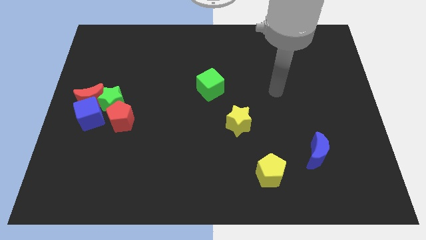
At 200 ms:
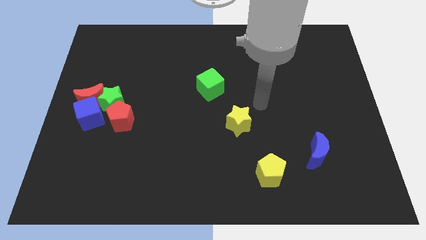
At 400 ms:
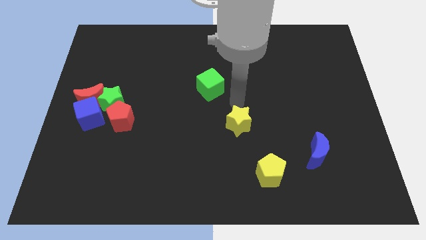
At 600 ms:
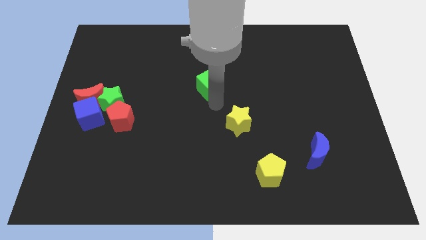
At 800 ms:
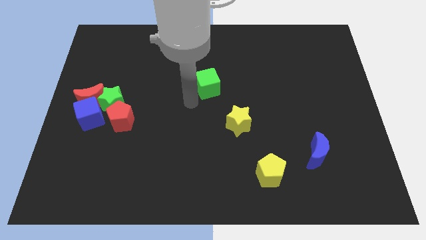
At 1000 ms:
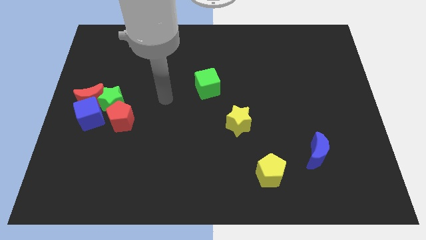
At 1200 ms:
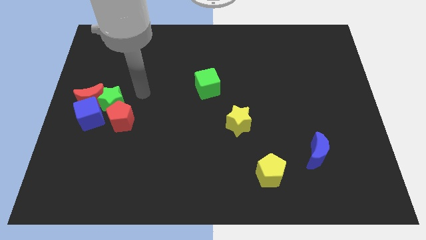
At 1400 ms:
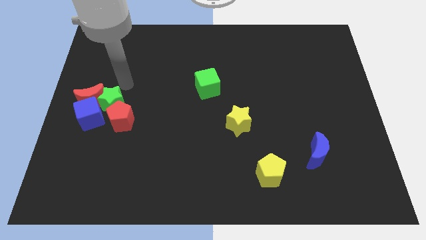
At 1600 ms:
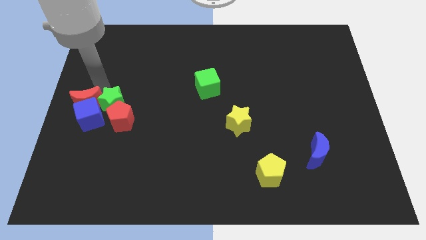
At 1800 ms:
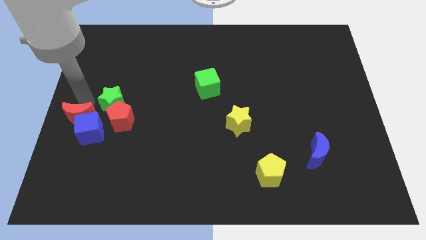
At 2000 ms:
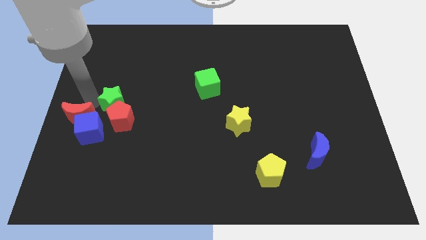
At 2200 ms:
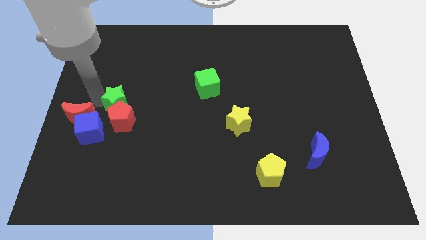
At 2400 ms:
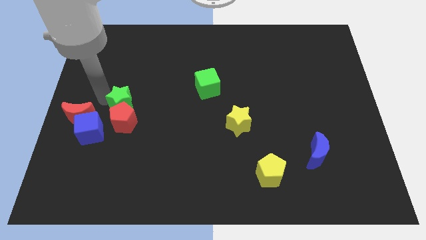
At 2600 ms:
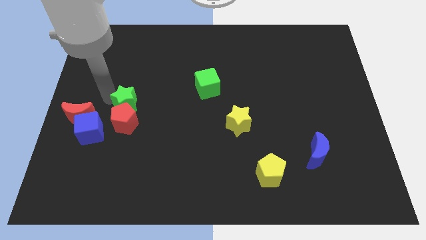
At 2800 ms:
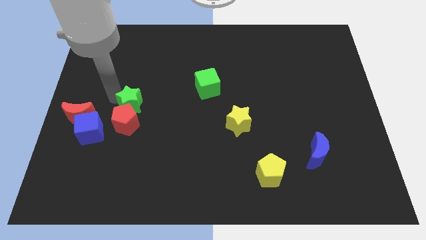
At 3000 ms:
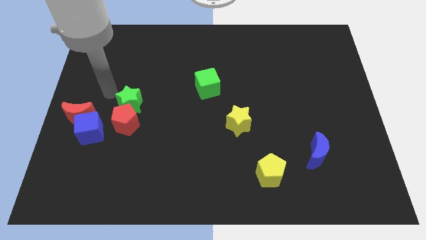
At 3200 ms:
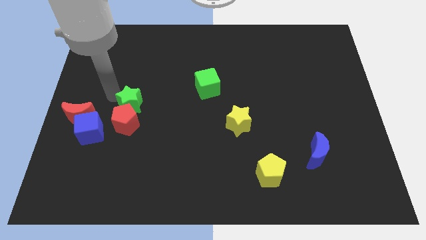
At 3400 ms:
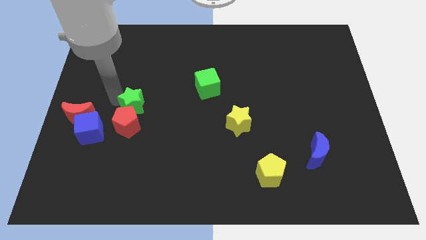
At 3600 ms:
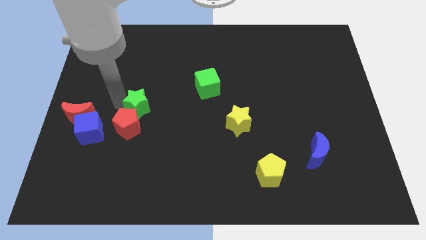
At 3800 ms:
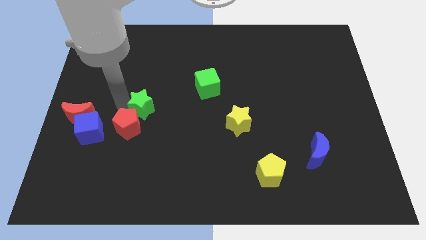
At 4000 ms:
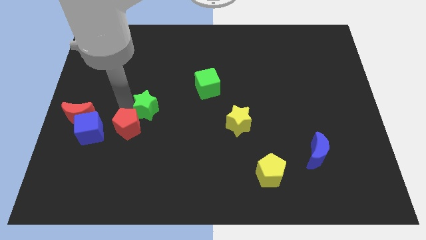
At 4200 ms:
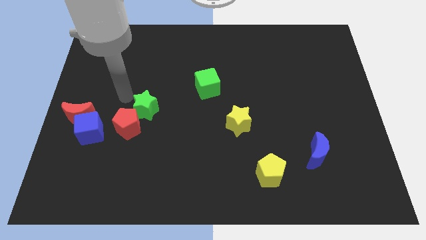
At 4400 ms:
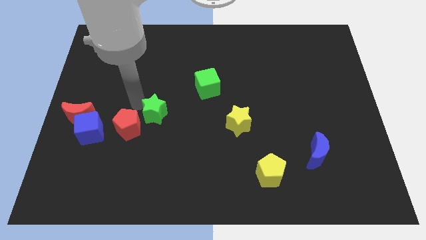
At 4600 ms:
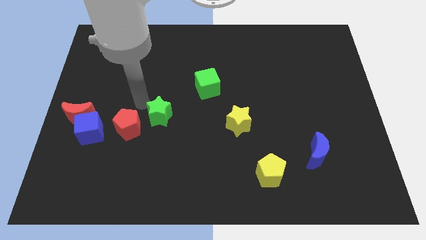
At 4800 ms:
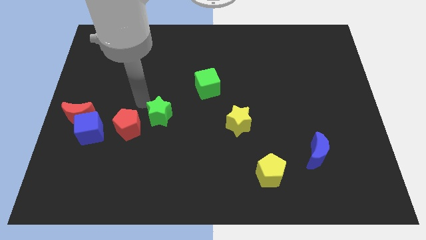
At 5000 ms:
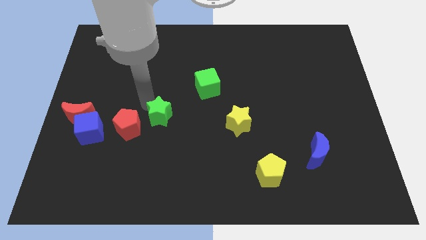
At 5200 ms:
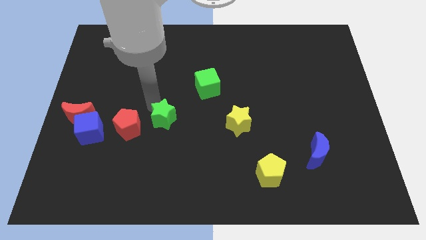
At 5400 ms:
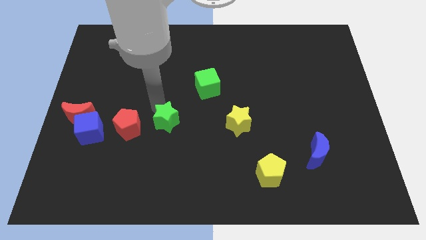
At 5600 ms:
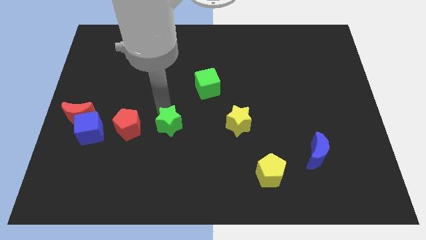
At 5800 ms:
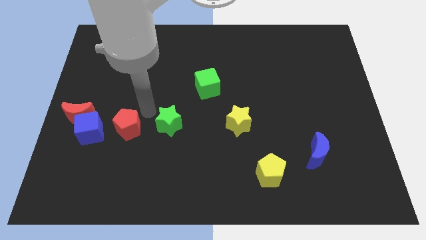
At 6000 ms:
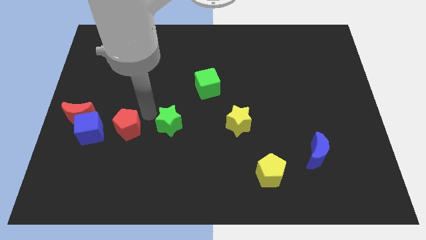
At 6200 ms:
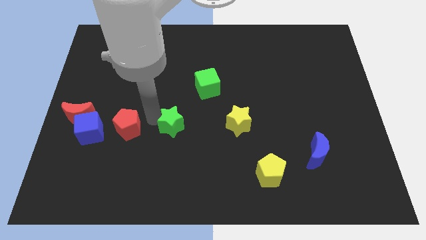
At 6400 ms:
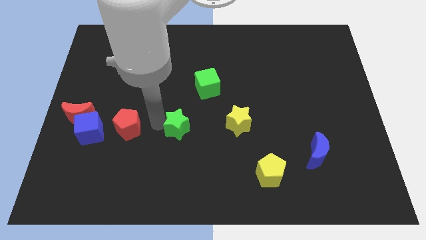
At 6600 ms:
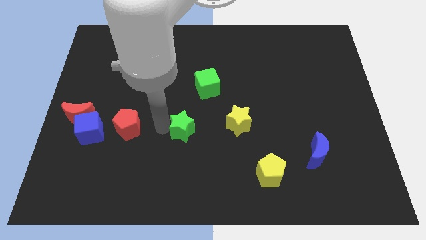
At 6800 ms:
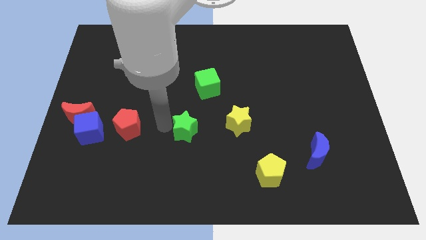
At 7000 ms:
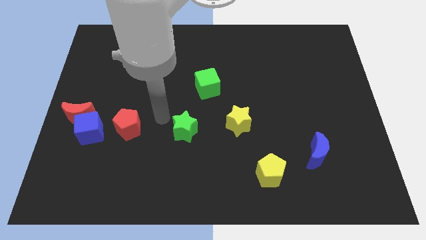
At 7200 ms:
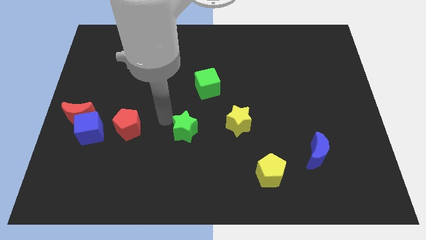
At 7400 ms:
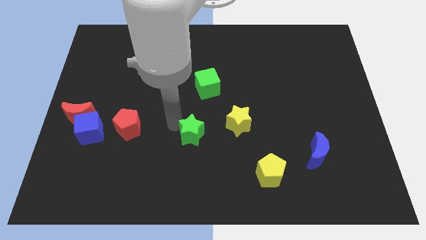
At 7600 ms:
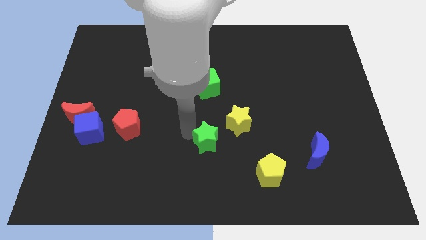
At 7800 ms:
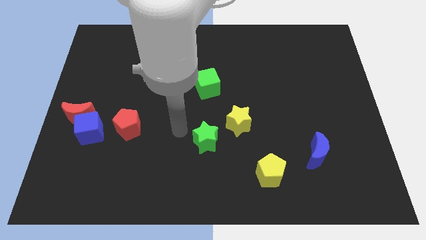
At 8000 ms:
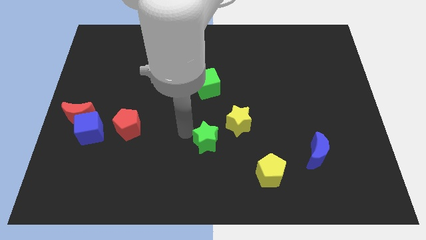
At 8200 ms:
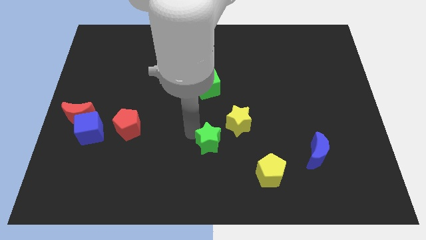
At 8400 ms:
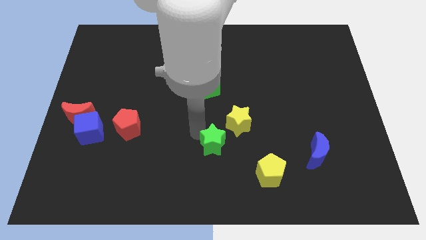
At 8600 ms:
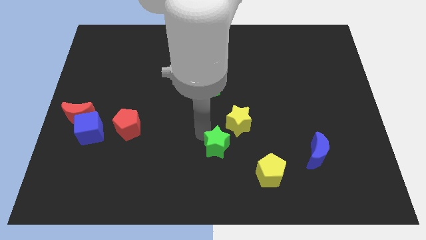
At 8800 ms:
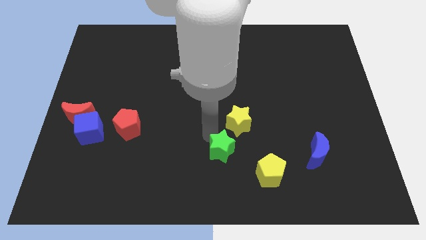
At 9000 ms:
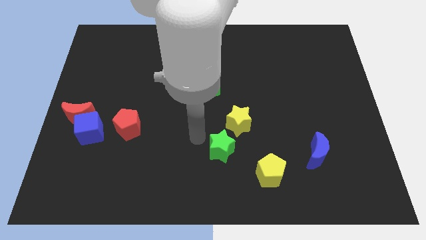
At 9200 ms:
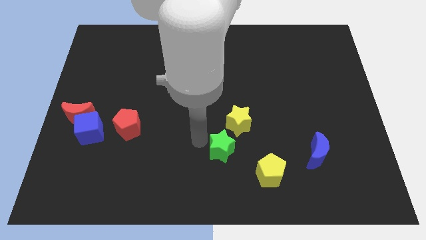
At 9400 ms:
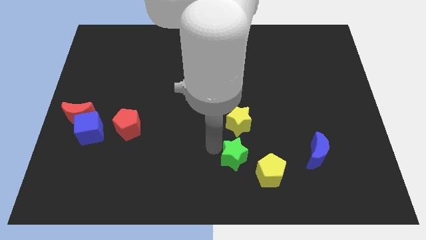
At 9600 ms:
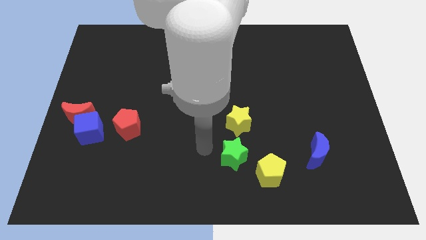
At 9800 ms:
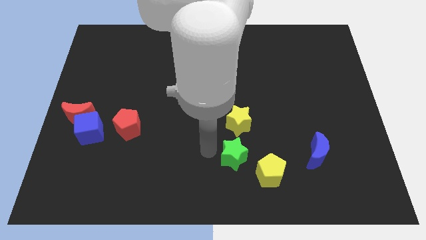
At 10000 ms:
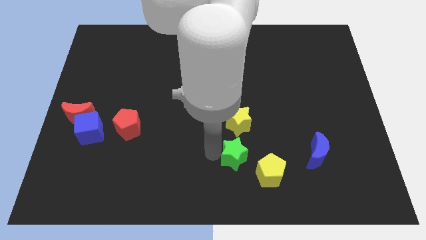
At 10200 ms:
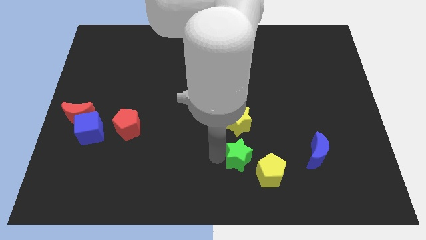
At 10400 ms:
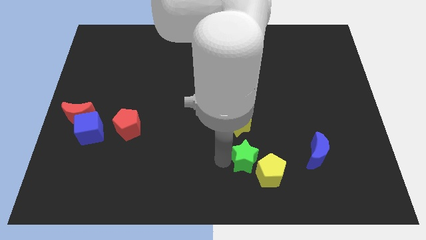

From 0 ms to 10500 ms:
put the green star towards the yellow pentagon

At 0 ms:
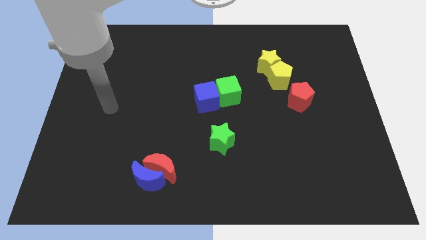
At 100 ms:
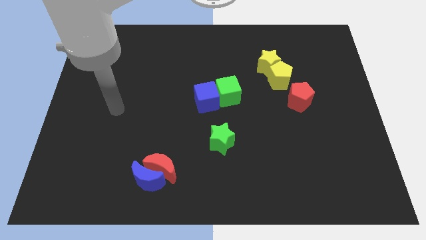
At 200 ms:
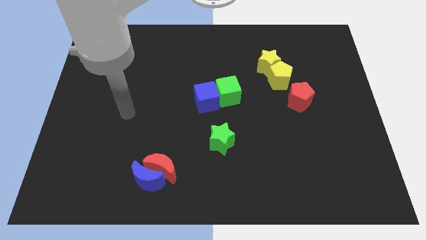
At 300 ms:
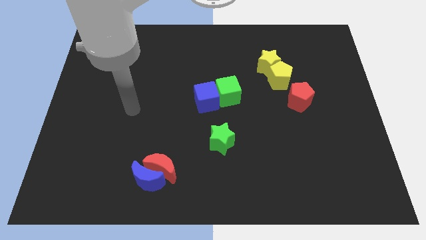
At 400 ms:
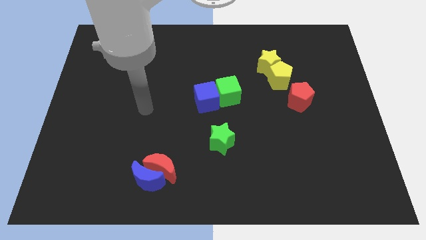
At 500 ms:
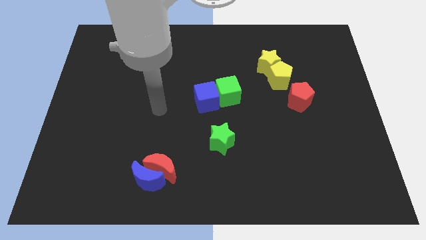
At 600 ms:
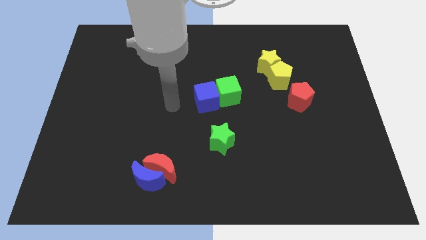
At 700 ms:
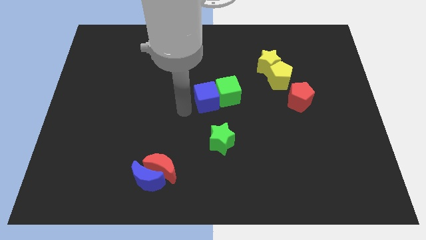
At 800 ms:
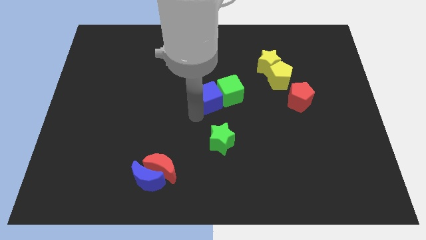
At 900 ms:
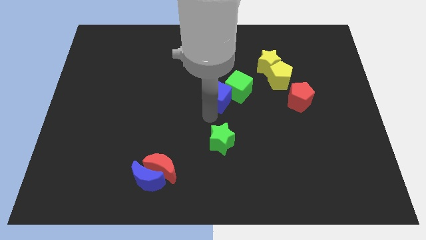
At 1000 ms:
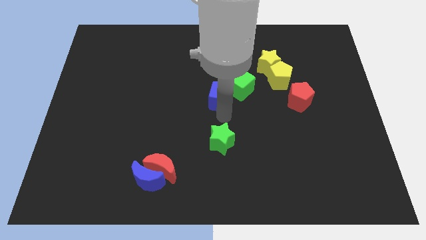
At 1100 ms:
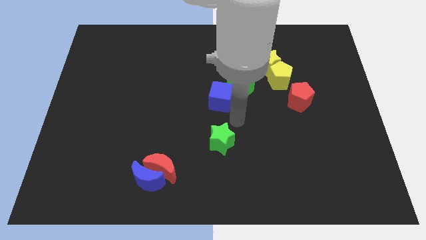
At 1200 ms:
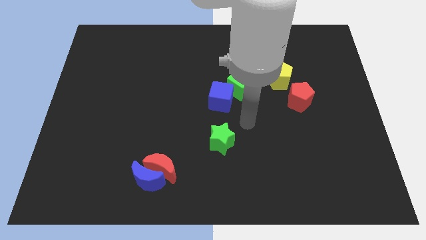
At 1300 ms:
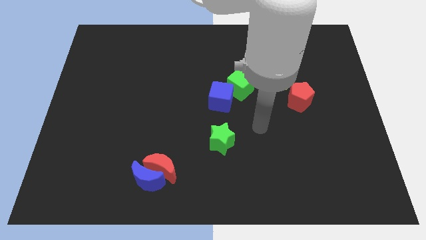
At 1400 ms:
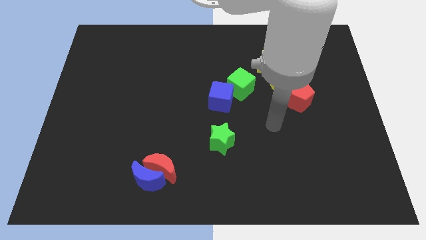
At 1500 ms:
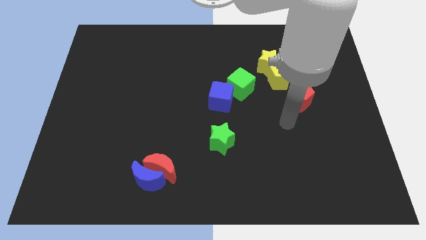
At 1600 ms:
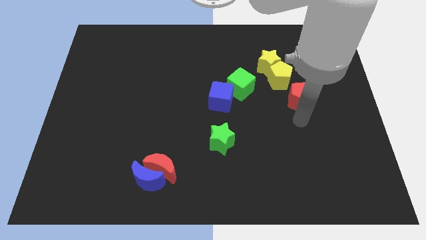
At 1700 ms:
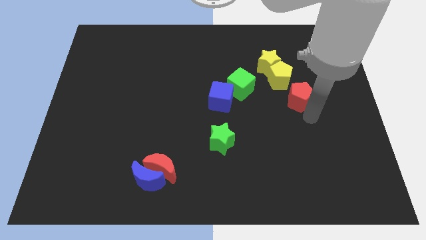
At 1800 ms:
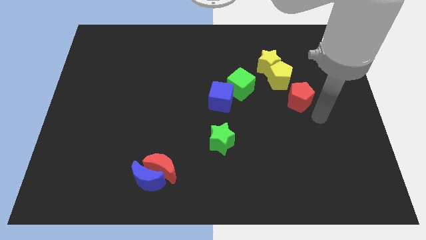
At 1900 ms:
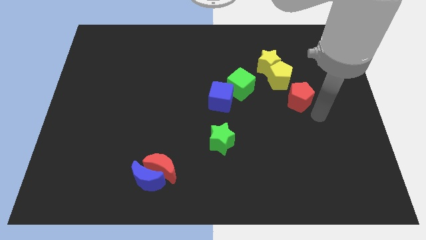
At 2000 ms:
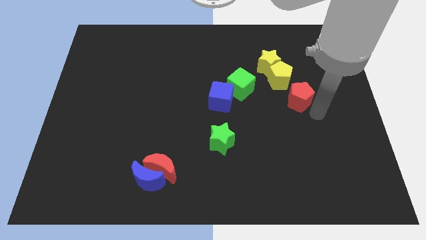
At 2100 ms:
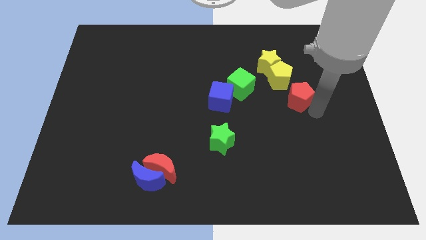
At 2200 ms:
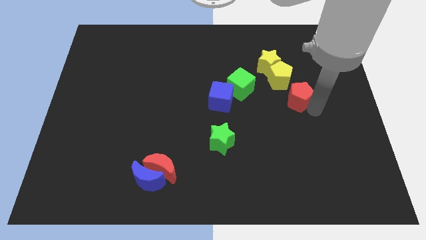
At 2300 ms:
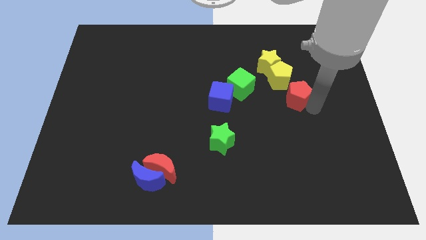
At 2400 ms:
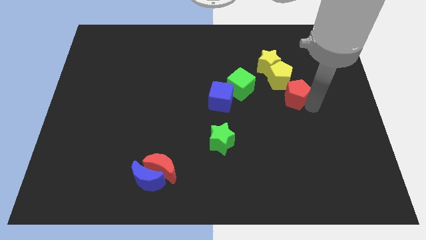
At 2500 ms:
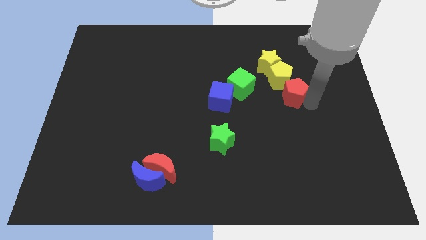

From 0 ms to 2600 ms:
push the red pentagon close to the yellow pentagon

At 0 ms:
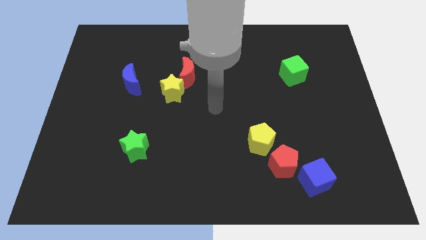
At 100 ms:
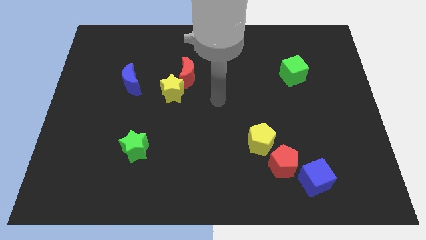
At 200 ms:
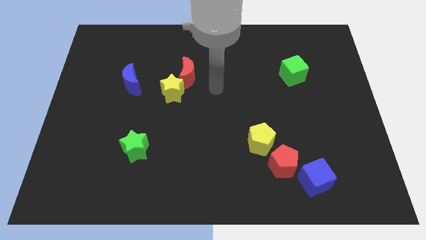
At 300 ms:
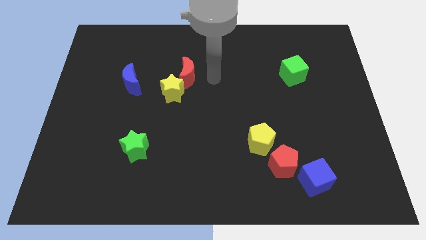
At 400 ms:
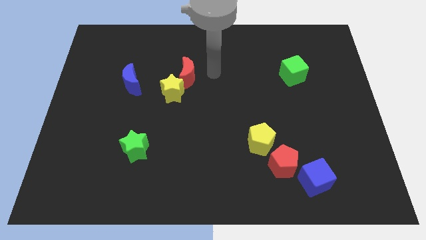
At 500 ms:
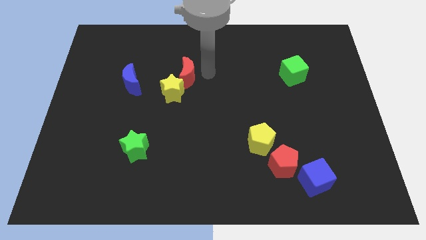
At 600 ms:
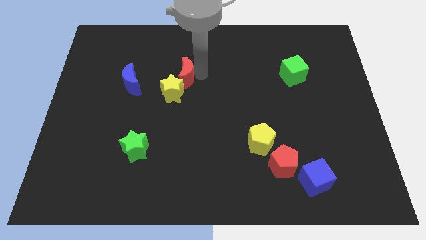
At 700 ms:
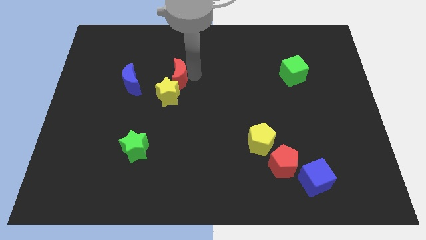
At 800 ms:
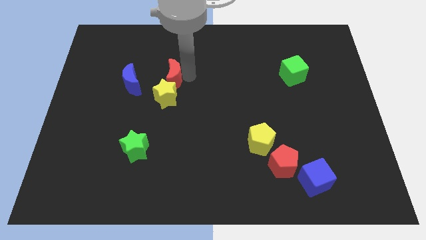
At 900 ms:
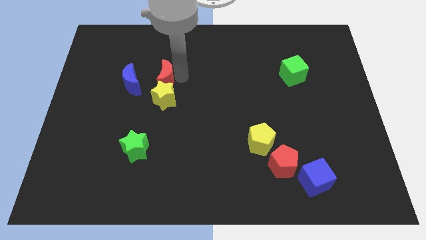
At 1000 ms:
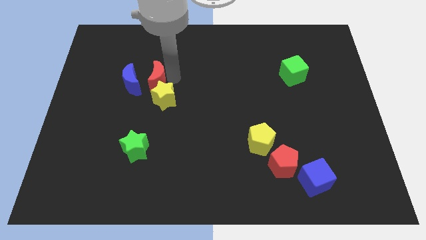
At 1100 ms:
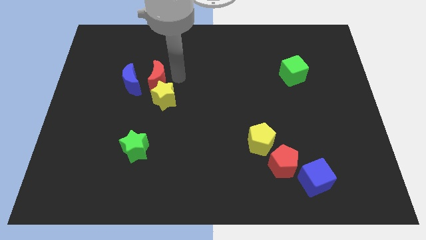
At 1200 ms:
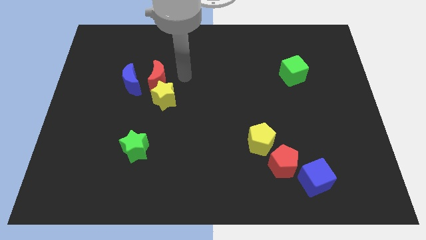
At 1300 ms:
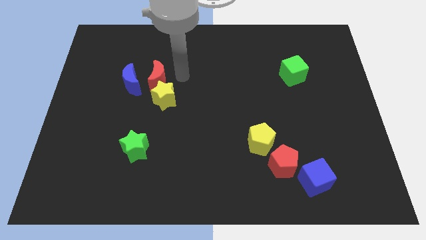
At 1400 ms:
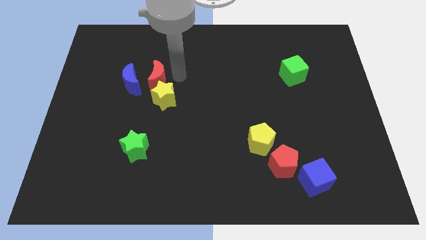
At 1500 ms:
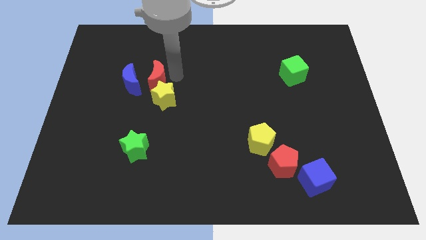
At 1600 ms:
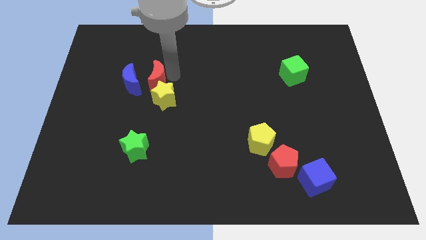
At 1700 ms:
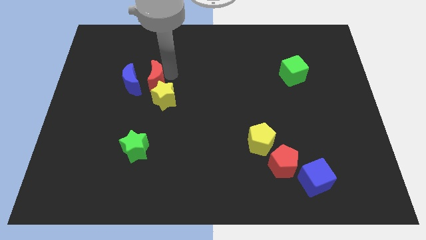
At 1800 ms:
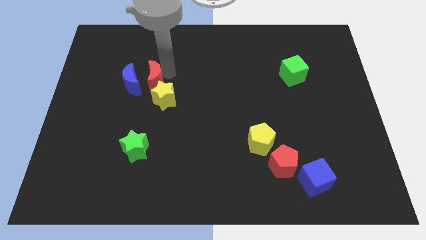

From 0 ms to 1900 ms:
push the red moon close to the blue moon
